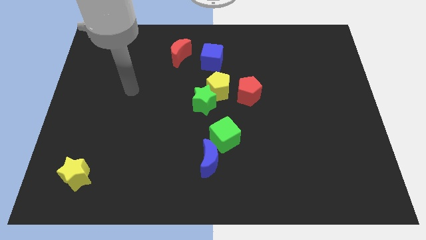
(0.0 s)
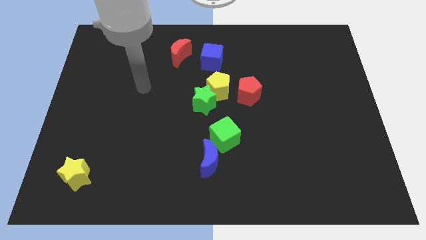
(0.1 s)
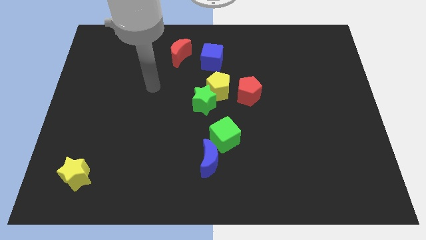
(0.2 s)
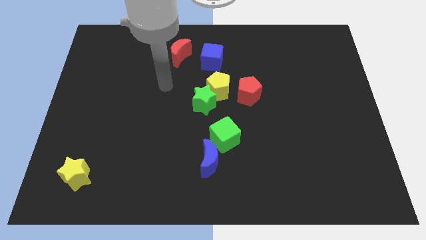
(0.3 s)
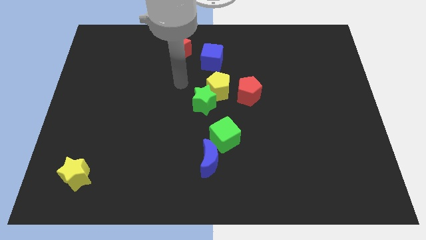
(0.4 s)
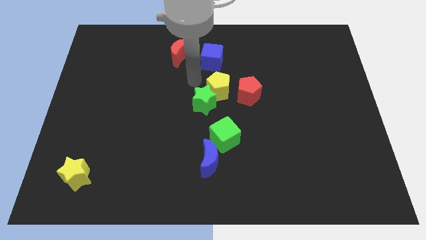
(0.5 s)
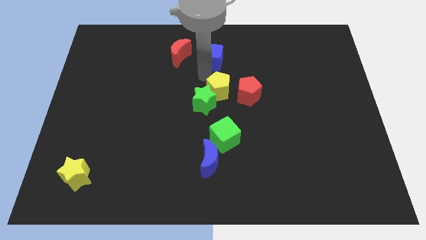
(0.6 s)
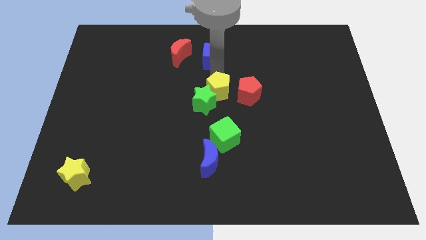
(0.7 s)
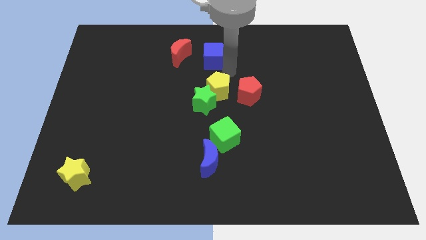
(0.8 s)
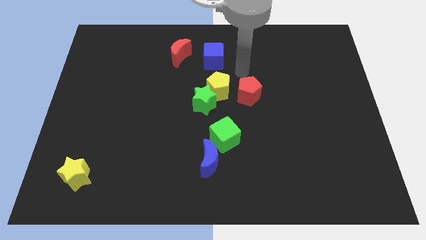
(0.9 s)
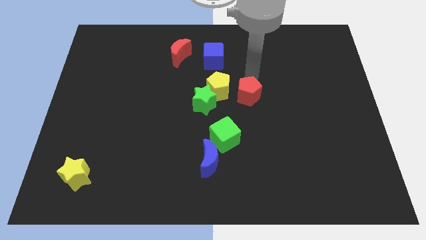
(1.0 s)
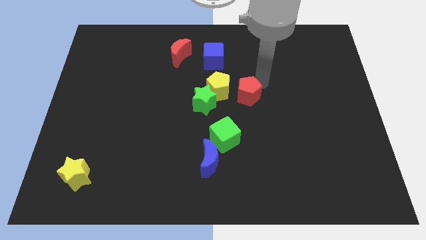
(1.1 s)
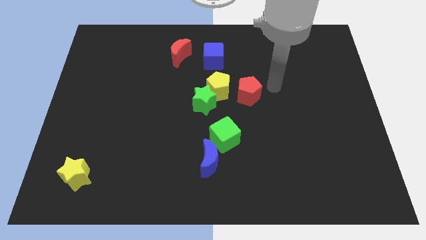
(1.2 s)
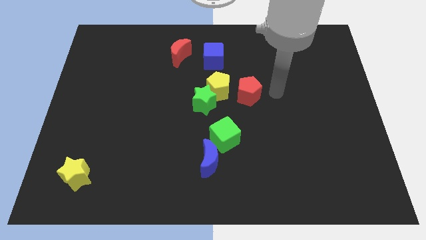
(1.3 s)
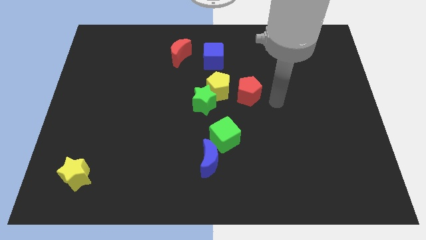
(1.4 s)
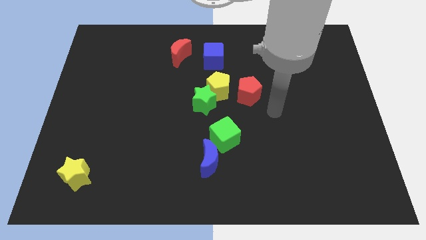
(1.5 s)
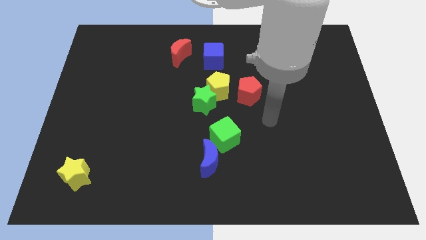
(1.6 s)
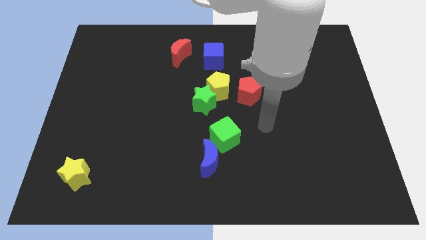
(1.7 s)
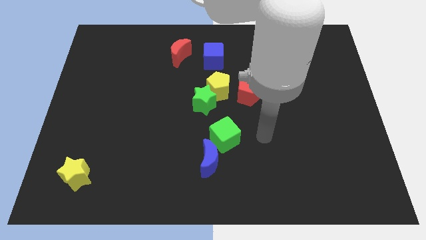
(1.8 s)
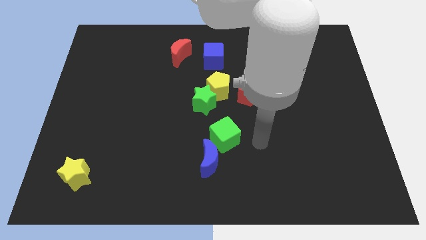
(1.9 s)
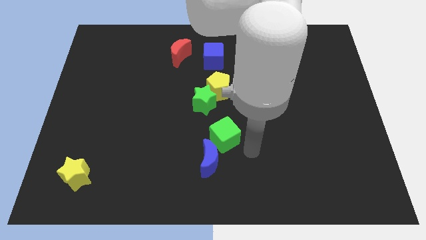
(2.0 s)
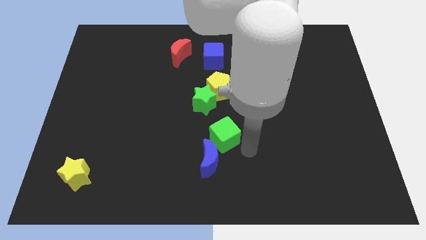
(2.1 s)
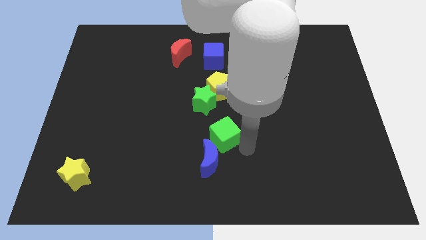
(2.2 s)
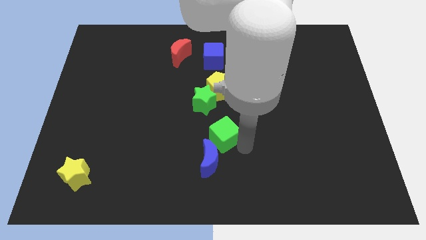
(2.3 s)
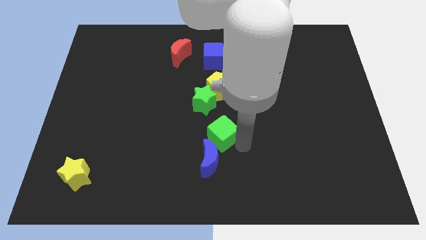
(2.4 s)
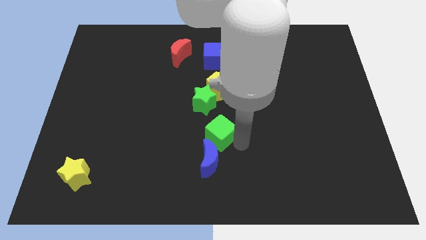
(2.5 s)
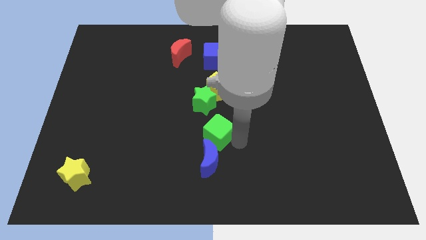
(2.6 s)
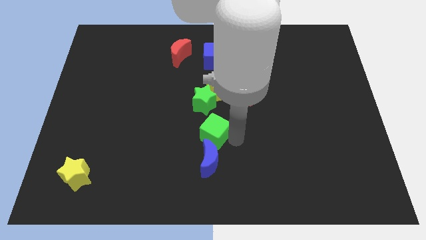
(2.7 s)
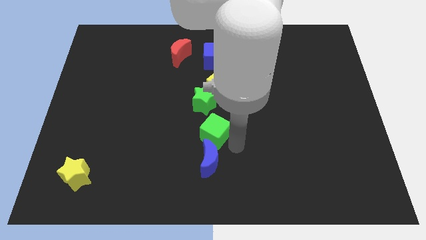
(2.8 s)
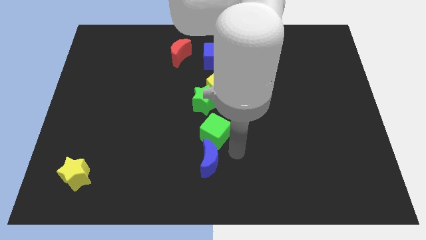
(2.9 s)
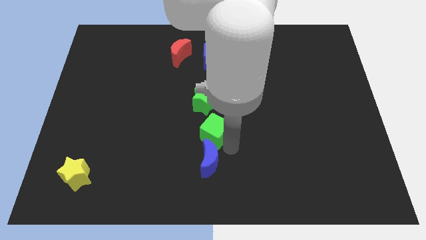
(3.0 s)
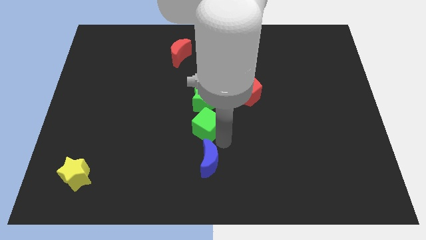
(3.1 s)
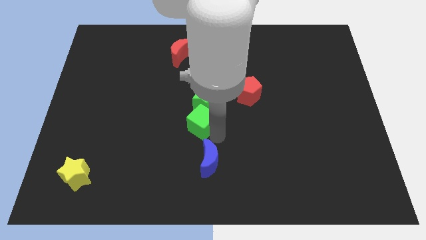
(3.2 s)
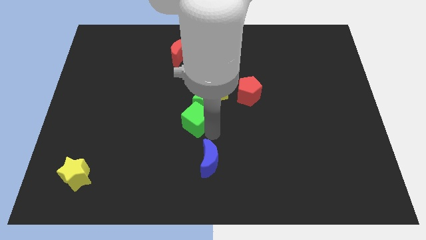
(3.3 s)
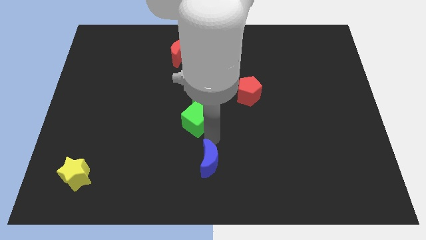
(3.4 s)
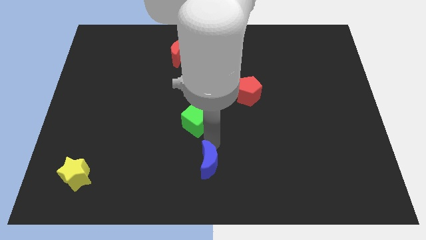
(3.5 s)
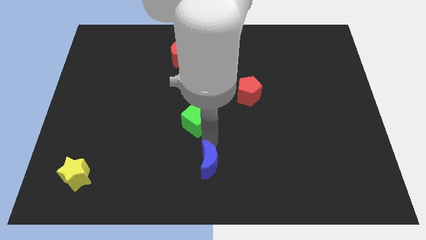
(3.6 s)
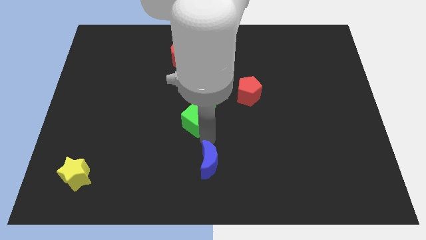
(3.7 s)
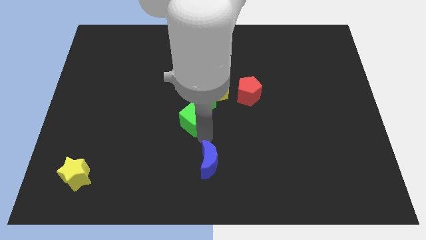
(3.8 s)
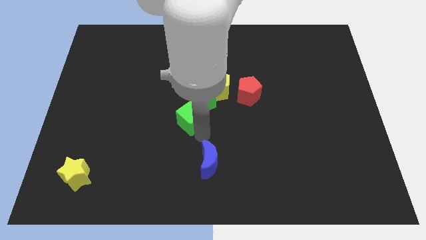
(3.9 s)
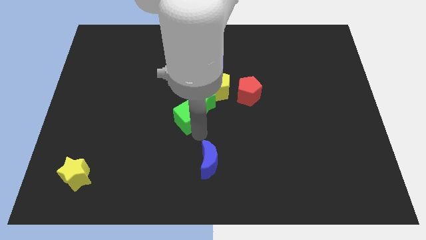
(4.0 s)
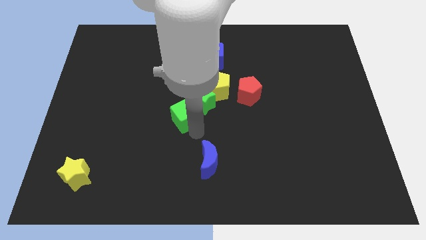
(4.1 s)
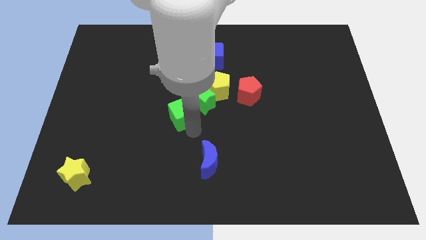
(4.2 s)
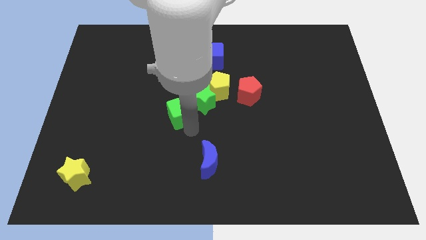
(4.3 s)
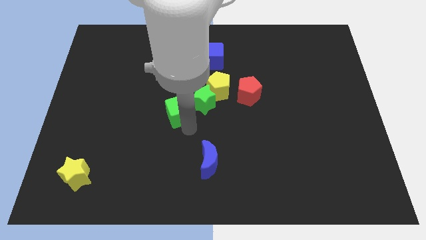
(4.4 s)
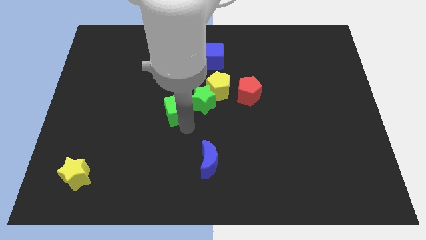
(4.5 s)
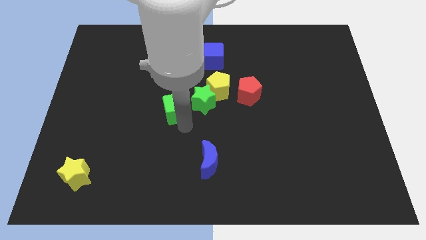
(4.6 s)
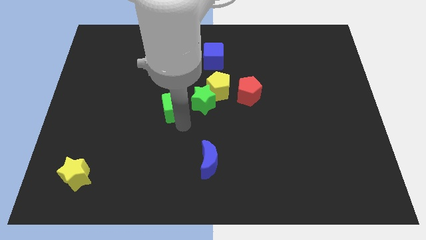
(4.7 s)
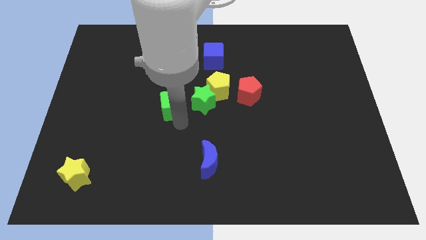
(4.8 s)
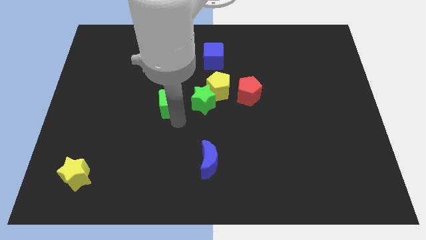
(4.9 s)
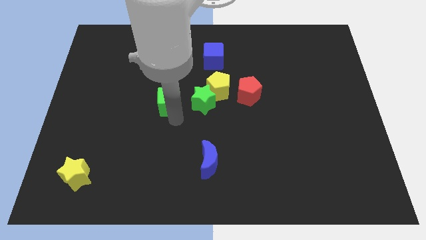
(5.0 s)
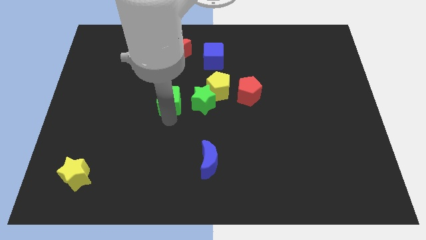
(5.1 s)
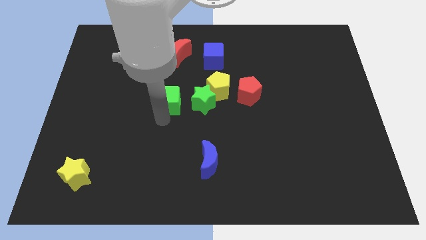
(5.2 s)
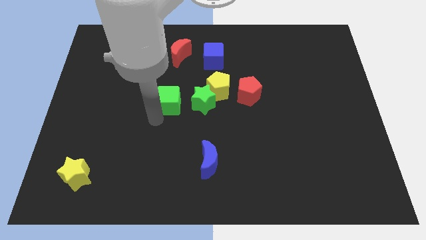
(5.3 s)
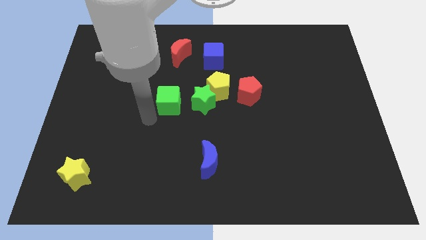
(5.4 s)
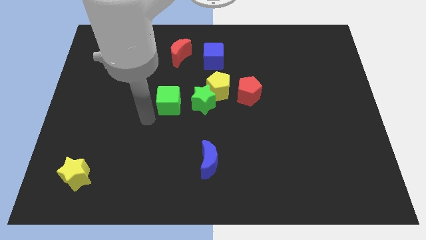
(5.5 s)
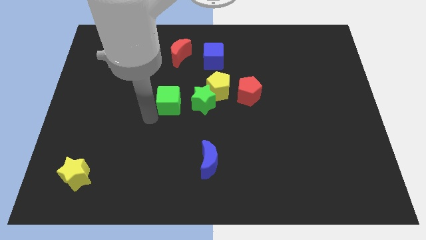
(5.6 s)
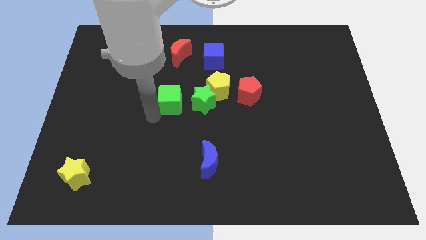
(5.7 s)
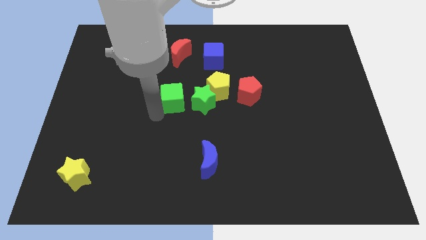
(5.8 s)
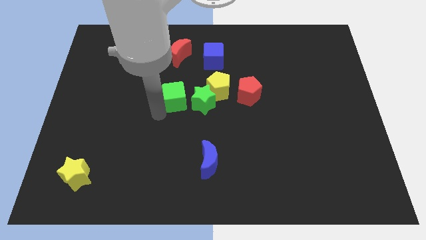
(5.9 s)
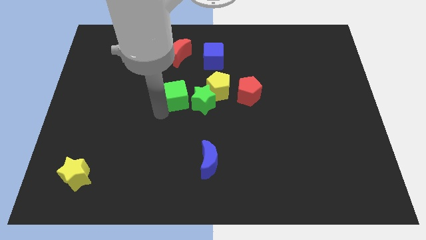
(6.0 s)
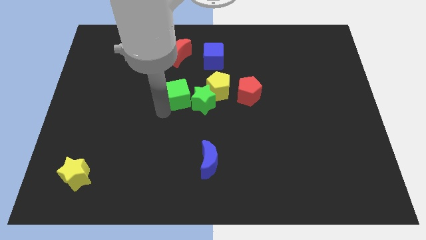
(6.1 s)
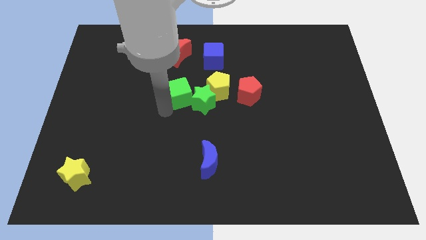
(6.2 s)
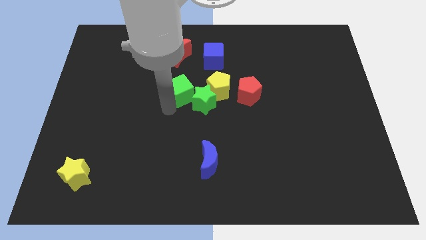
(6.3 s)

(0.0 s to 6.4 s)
slightly push the green cube up

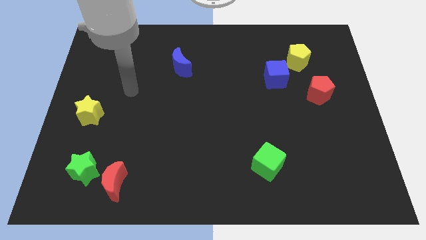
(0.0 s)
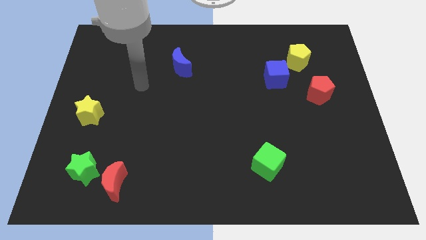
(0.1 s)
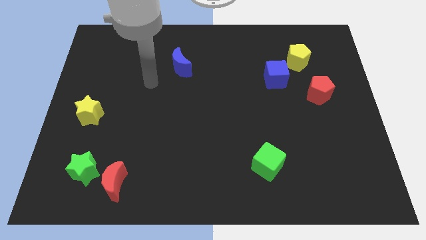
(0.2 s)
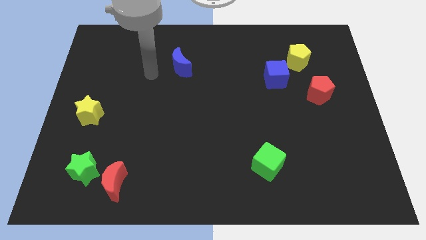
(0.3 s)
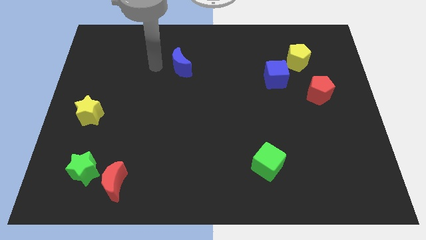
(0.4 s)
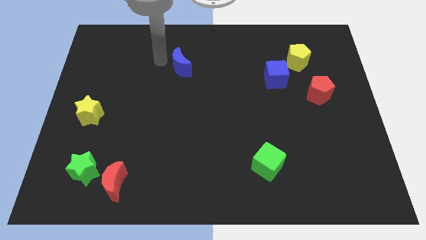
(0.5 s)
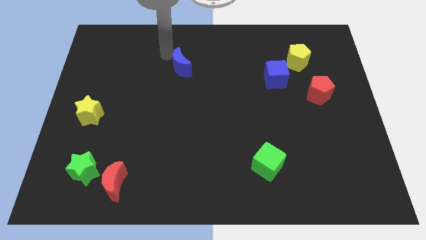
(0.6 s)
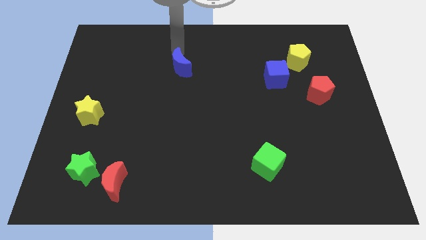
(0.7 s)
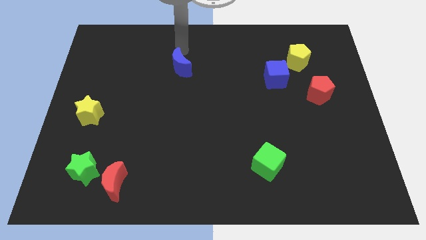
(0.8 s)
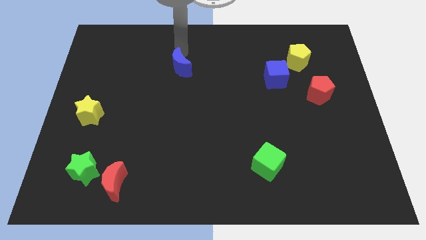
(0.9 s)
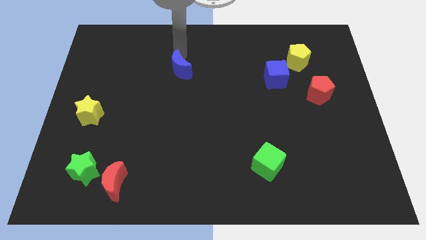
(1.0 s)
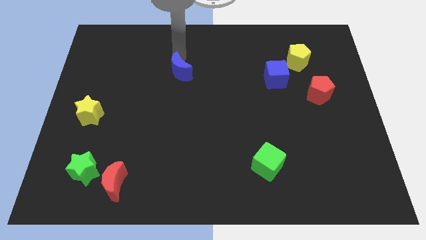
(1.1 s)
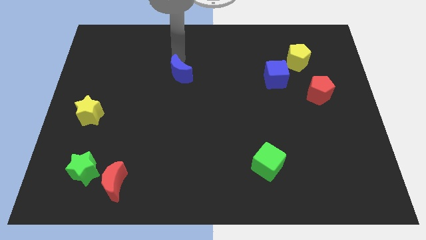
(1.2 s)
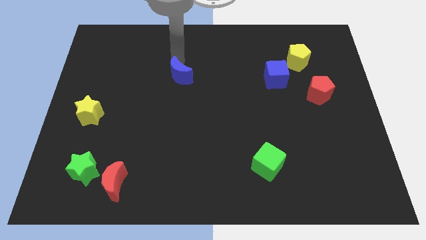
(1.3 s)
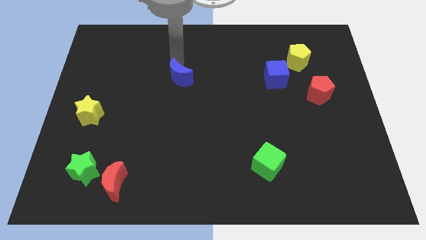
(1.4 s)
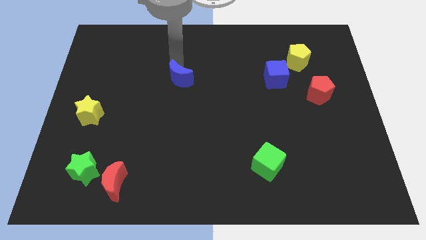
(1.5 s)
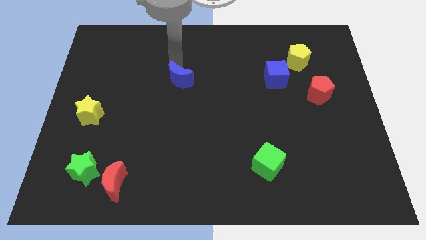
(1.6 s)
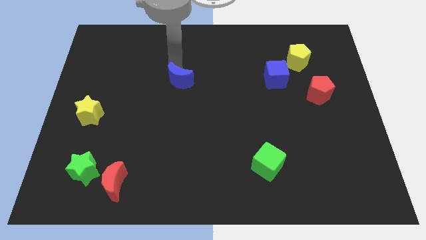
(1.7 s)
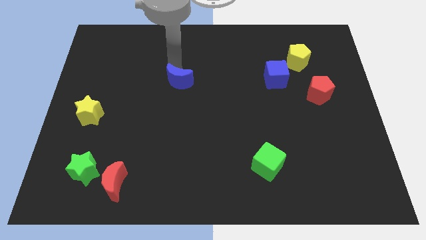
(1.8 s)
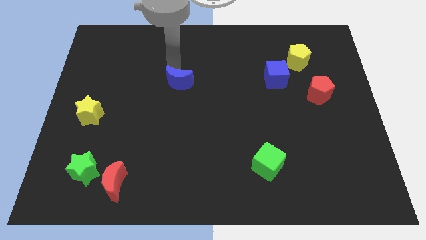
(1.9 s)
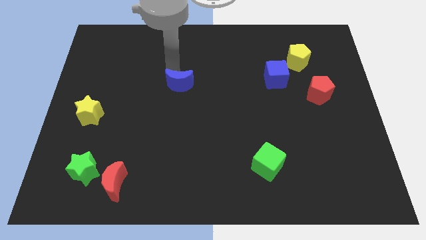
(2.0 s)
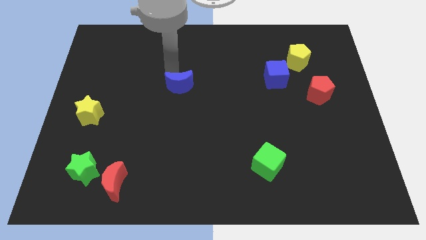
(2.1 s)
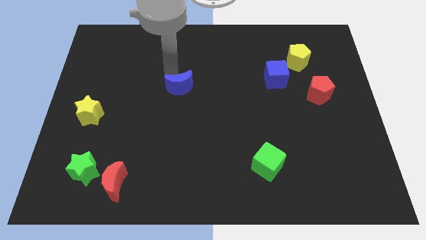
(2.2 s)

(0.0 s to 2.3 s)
slightly slide the blue moon downwards
